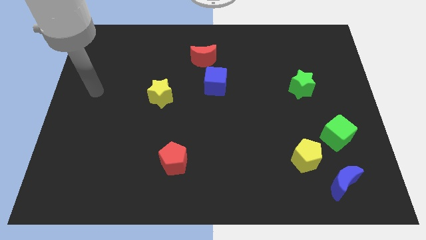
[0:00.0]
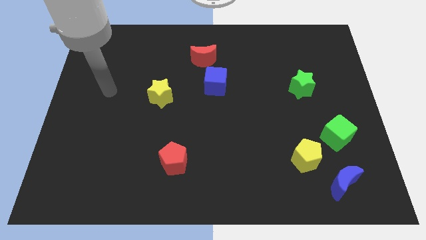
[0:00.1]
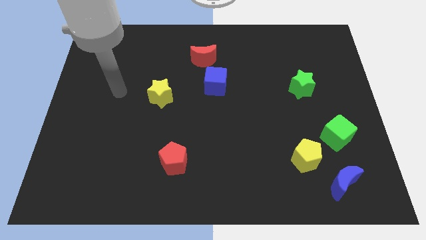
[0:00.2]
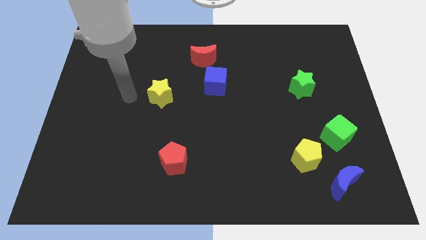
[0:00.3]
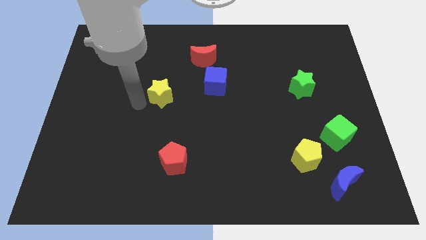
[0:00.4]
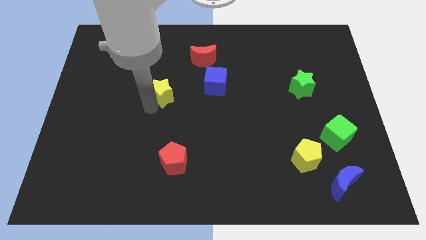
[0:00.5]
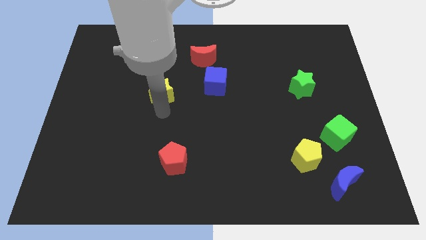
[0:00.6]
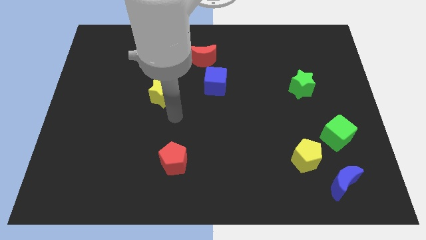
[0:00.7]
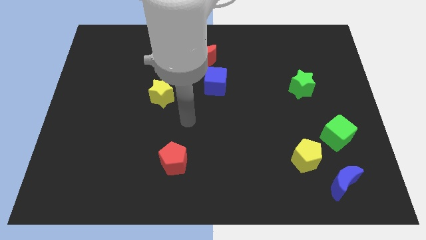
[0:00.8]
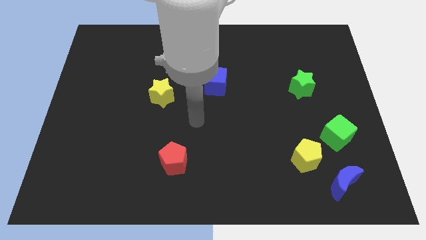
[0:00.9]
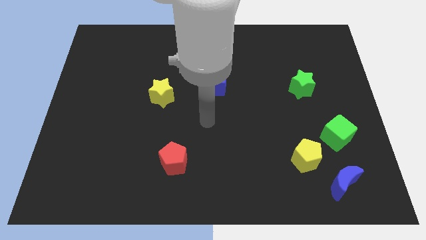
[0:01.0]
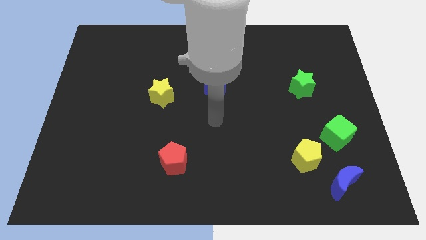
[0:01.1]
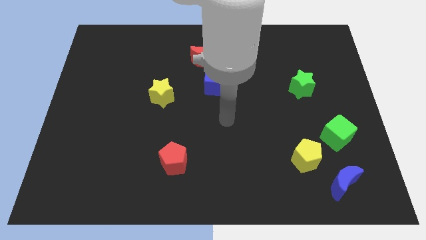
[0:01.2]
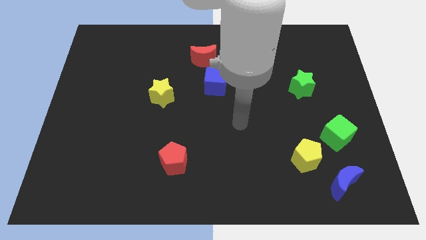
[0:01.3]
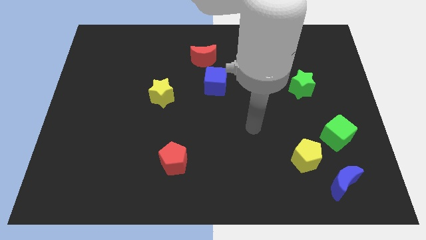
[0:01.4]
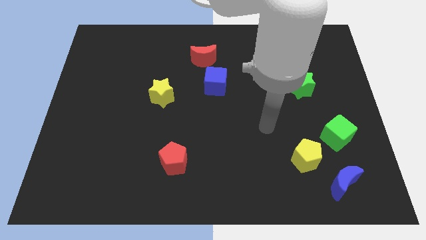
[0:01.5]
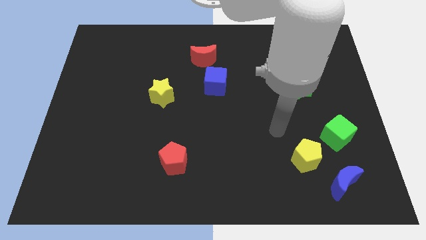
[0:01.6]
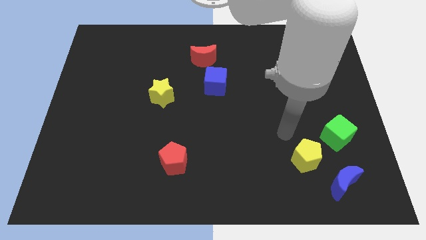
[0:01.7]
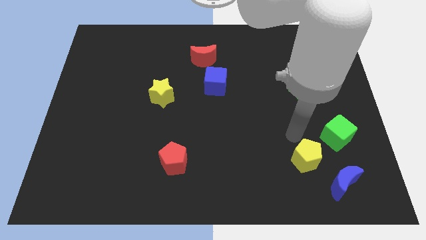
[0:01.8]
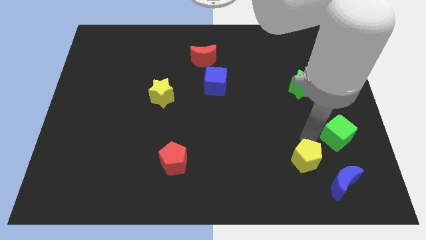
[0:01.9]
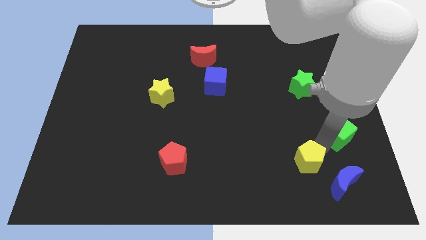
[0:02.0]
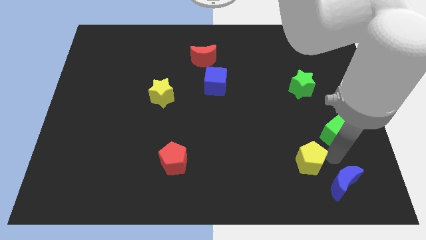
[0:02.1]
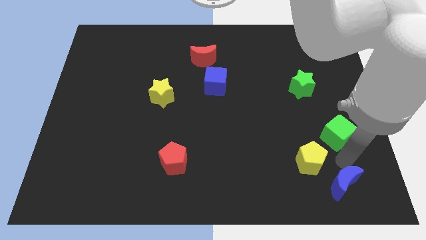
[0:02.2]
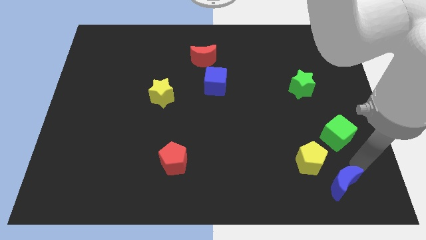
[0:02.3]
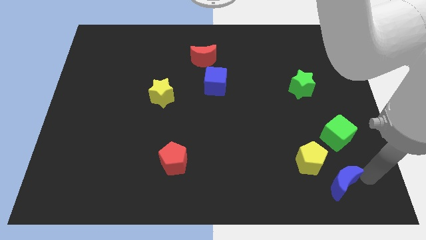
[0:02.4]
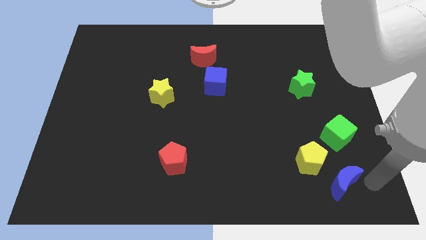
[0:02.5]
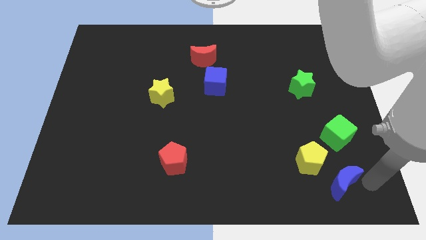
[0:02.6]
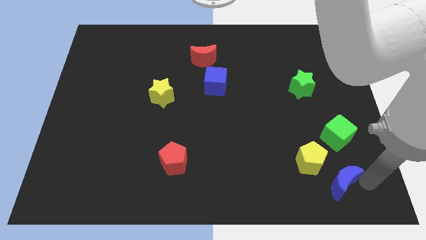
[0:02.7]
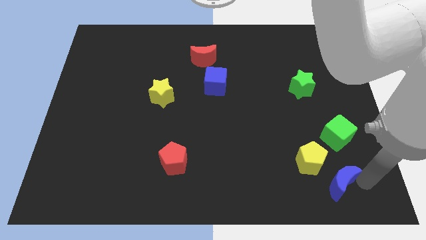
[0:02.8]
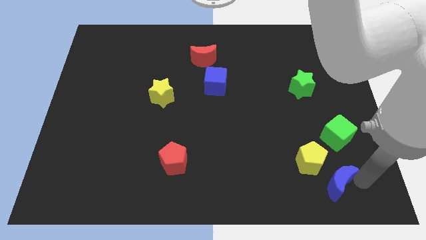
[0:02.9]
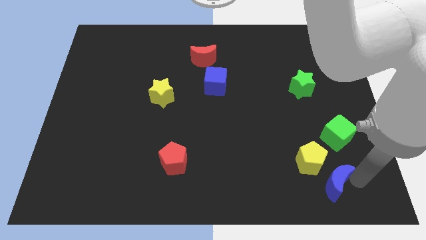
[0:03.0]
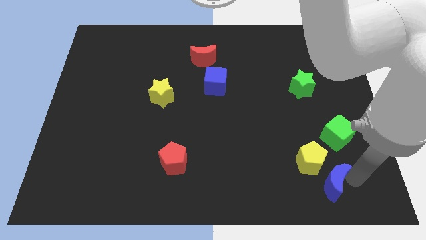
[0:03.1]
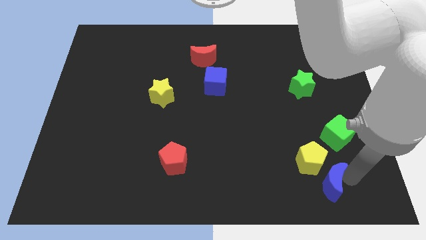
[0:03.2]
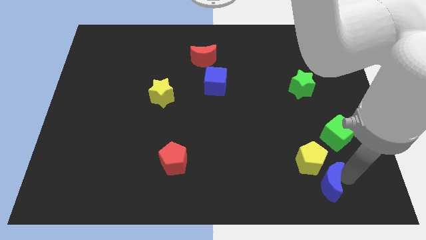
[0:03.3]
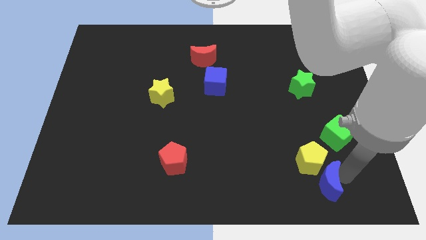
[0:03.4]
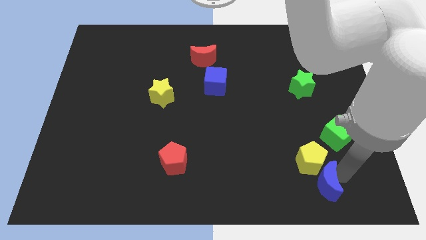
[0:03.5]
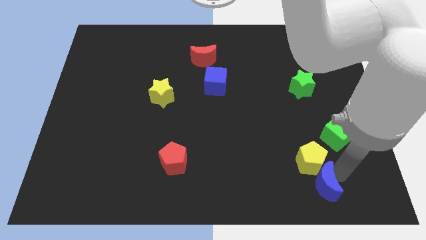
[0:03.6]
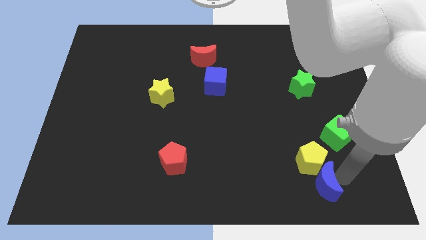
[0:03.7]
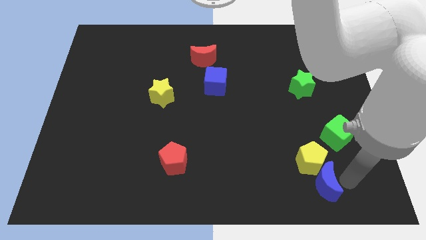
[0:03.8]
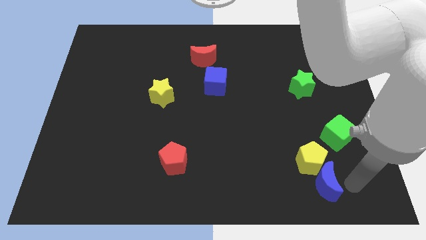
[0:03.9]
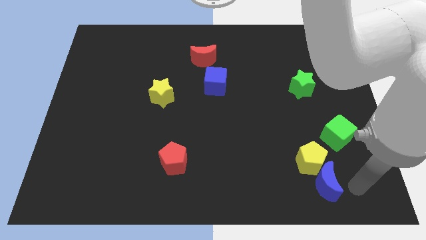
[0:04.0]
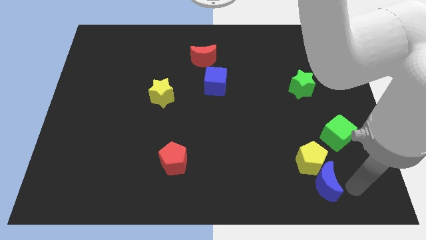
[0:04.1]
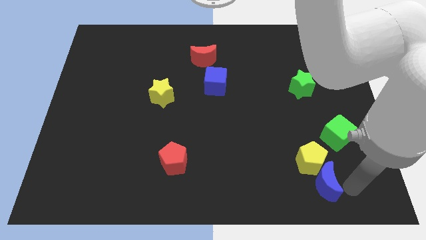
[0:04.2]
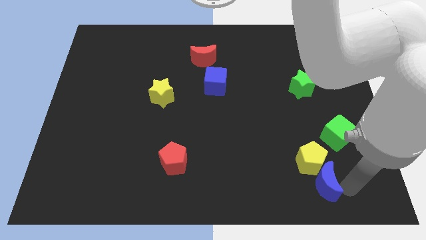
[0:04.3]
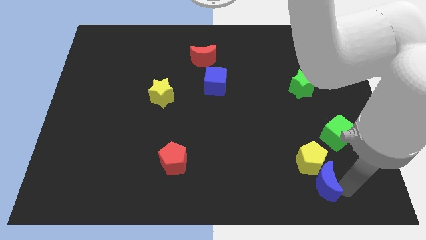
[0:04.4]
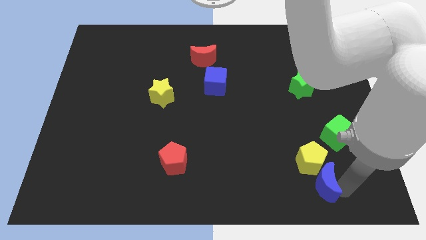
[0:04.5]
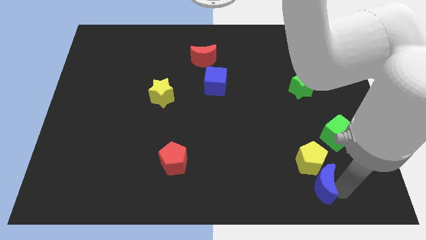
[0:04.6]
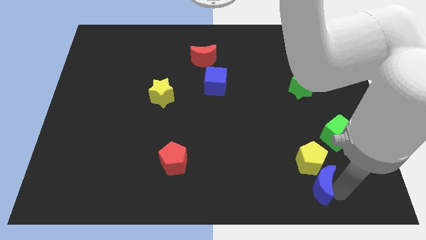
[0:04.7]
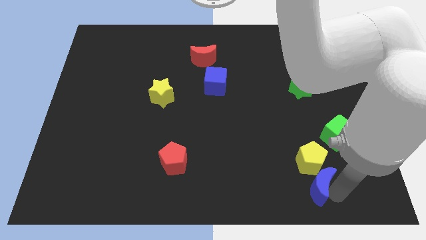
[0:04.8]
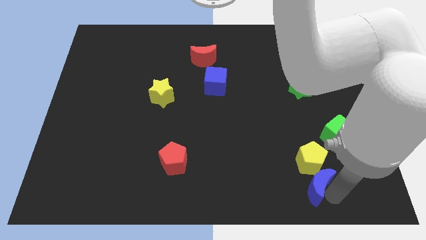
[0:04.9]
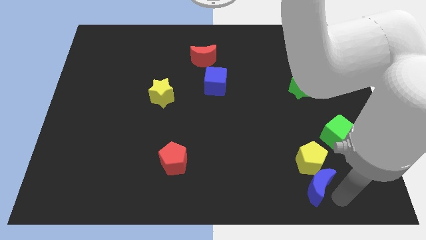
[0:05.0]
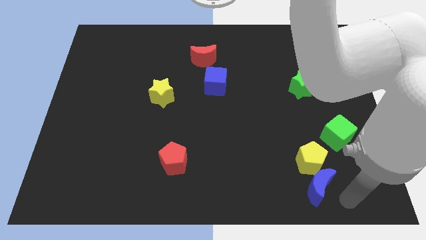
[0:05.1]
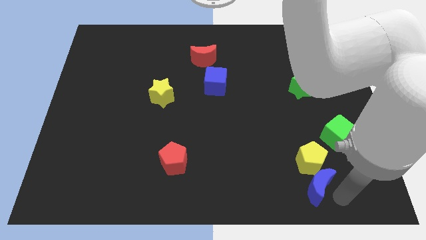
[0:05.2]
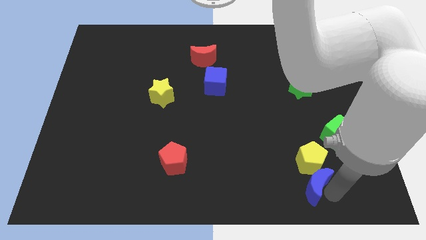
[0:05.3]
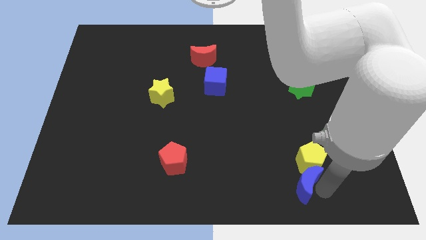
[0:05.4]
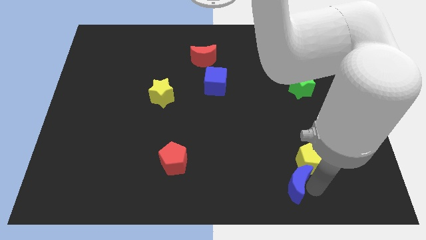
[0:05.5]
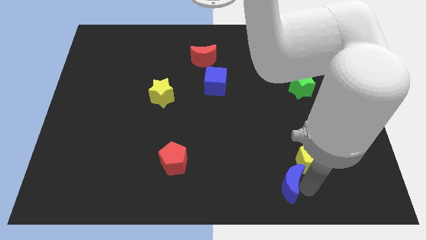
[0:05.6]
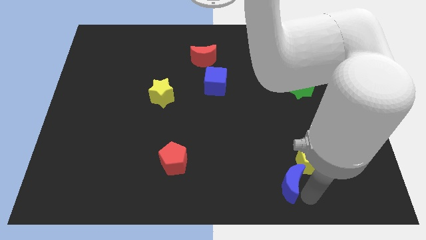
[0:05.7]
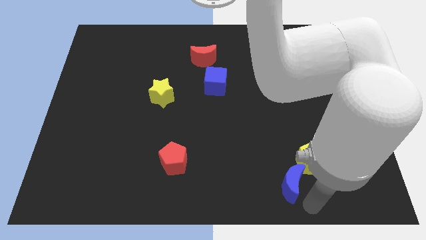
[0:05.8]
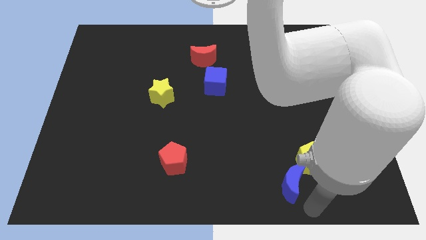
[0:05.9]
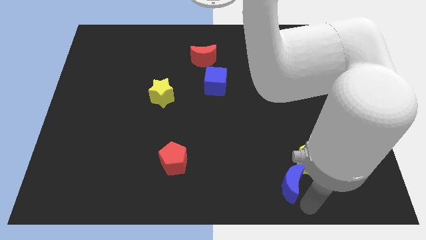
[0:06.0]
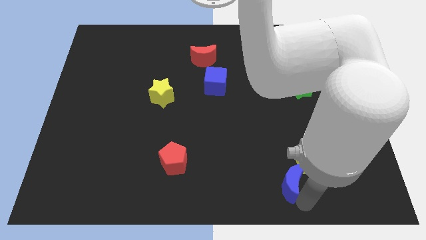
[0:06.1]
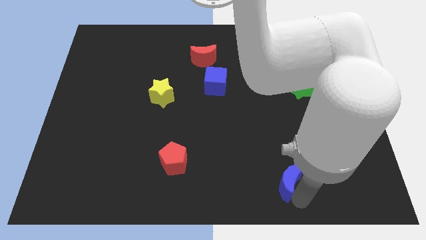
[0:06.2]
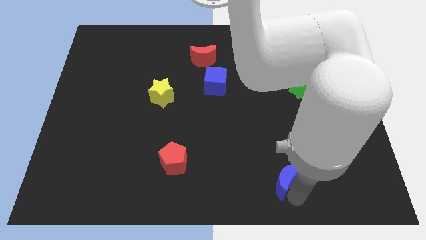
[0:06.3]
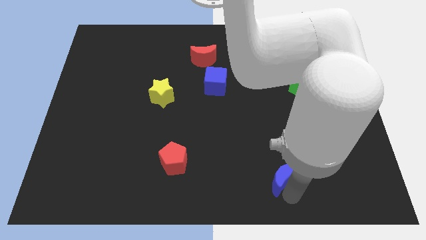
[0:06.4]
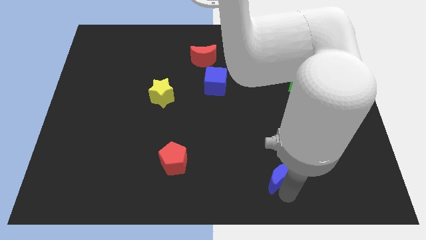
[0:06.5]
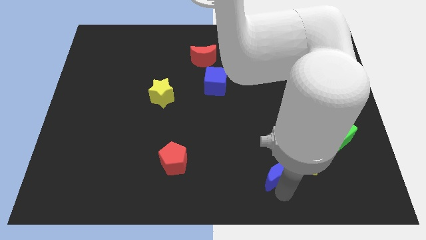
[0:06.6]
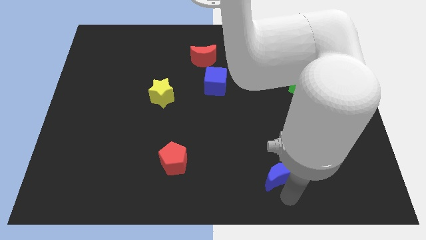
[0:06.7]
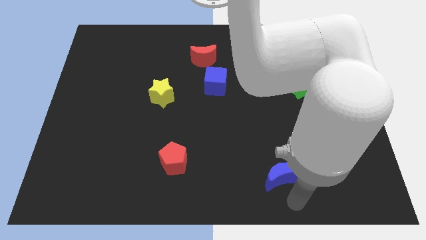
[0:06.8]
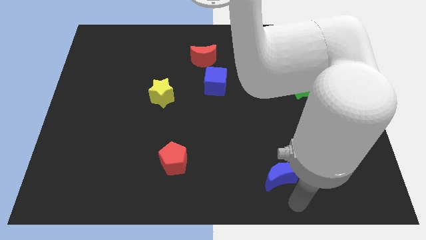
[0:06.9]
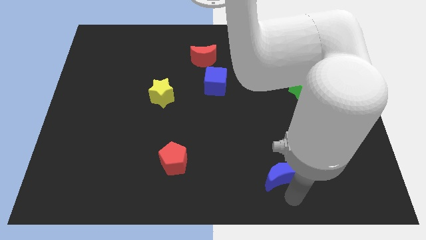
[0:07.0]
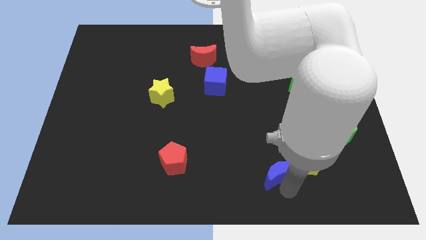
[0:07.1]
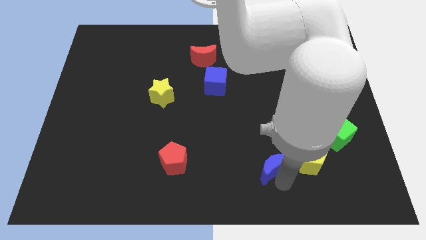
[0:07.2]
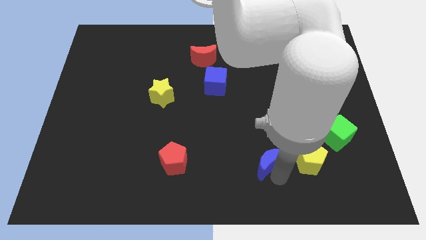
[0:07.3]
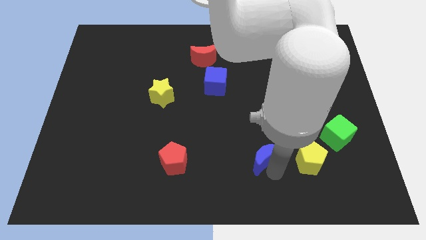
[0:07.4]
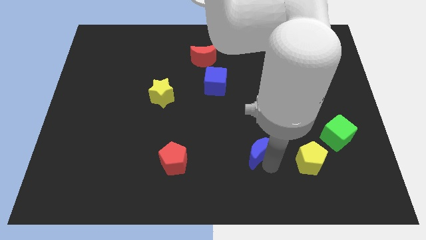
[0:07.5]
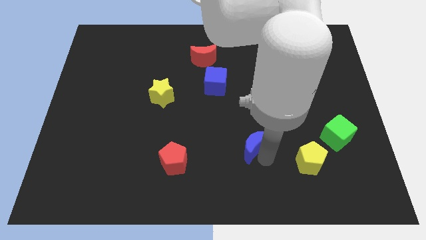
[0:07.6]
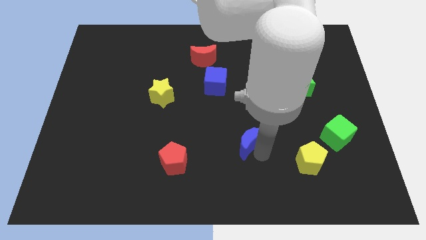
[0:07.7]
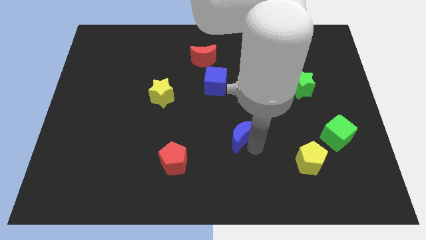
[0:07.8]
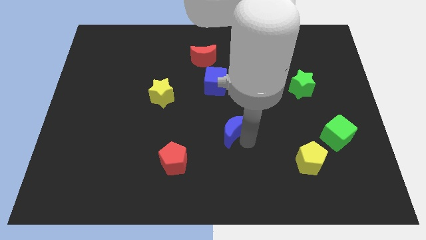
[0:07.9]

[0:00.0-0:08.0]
push the blue moon to the bottom of the blue cube
